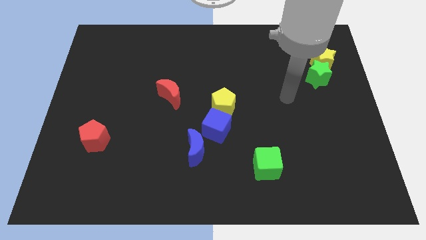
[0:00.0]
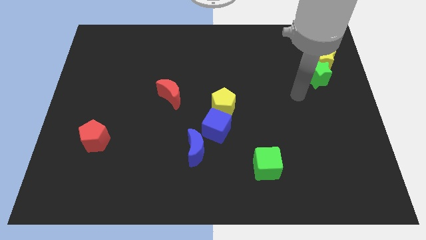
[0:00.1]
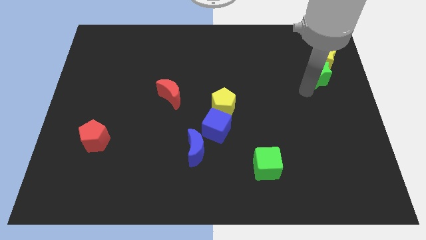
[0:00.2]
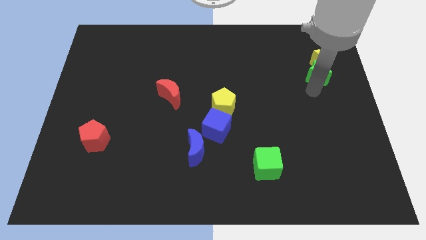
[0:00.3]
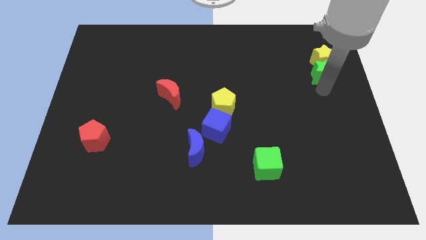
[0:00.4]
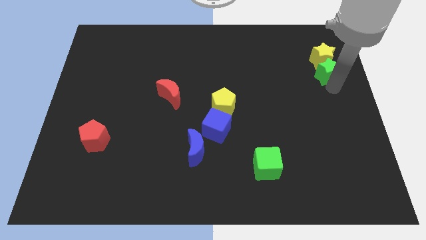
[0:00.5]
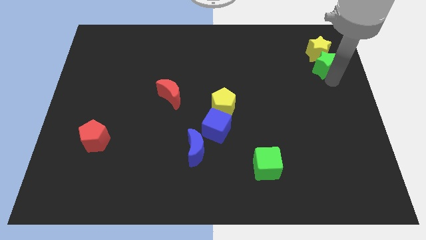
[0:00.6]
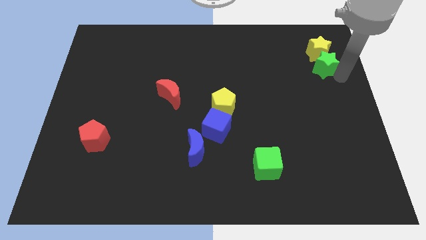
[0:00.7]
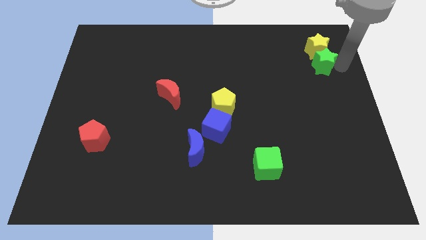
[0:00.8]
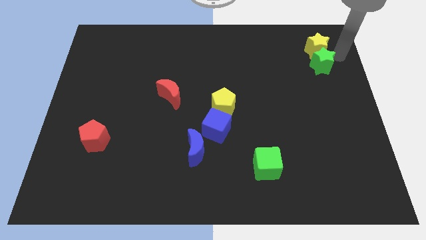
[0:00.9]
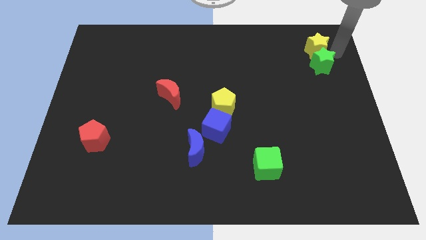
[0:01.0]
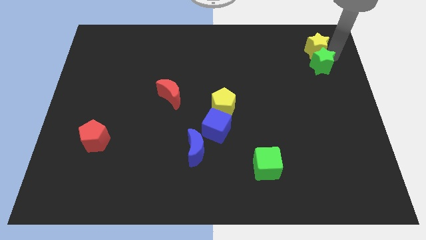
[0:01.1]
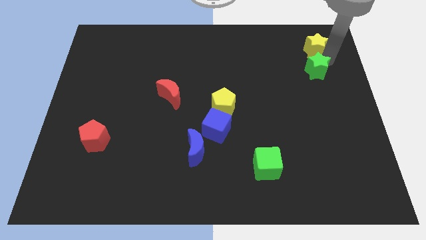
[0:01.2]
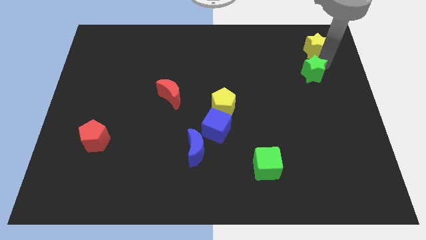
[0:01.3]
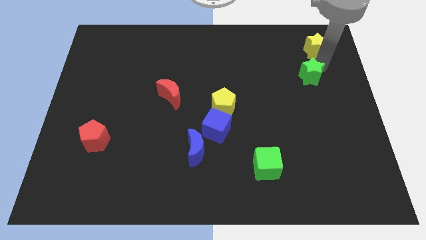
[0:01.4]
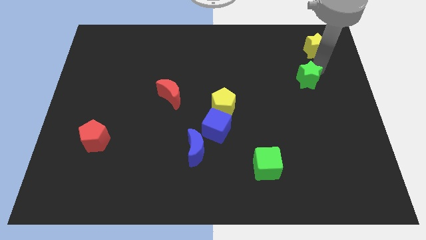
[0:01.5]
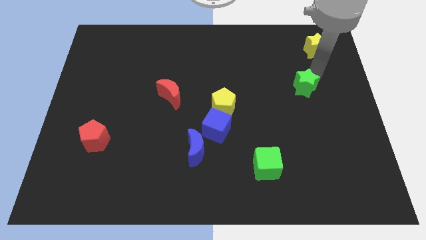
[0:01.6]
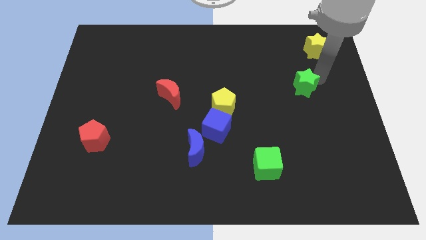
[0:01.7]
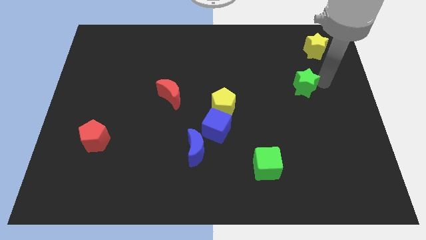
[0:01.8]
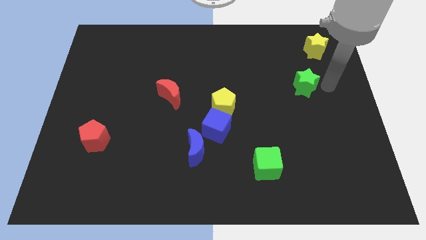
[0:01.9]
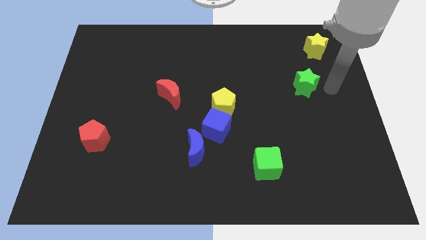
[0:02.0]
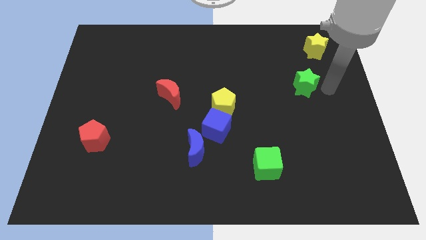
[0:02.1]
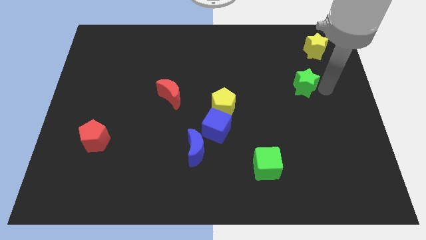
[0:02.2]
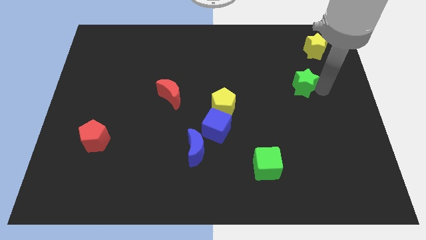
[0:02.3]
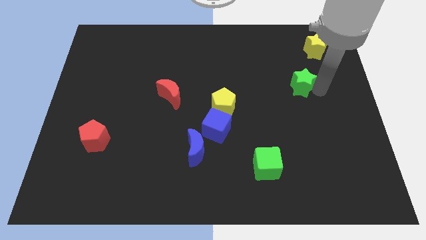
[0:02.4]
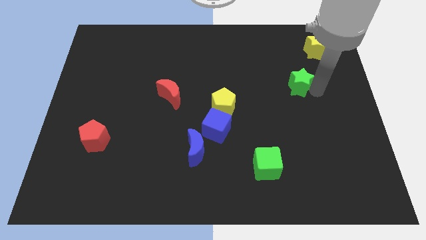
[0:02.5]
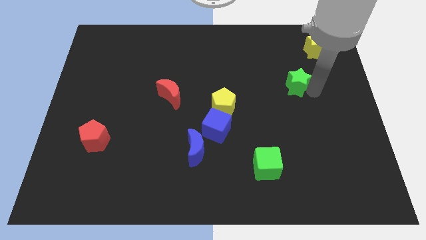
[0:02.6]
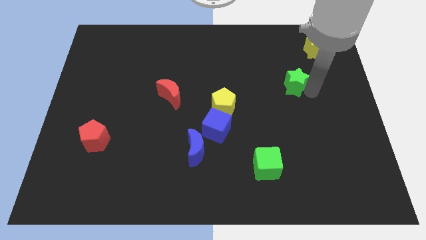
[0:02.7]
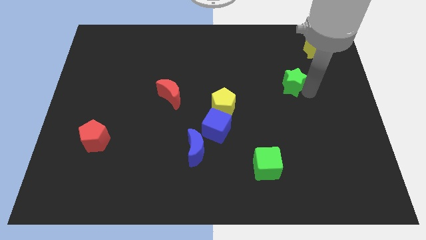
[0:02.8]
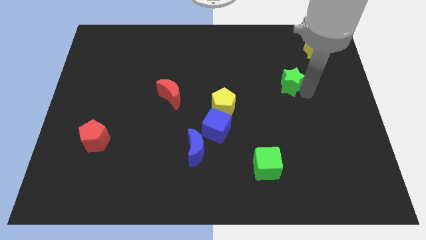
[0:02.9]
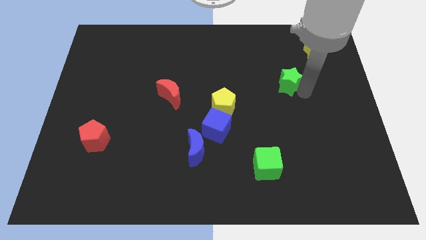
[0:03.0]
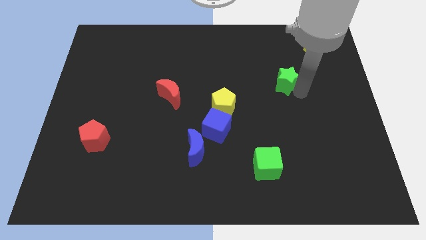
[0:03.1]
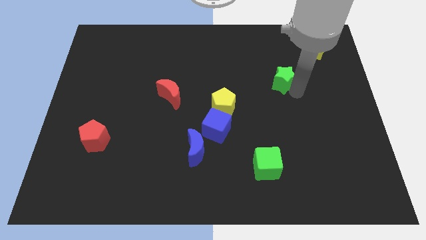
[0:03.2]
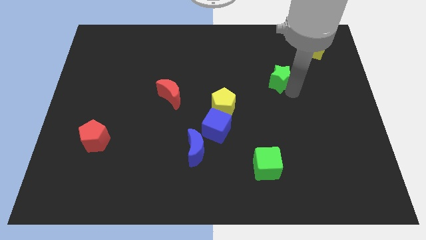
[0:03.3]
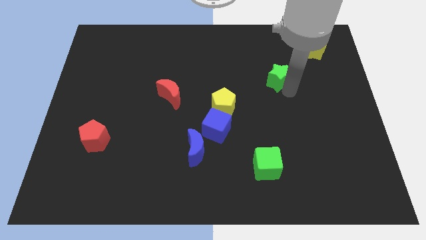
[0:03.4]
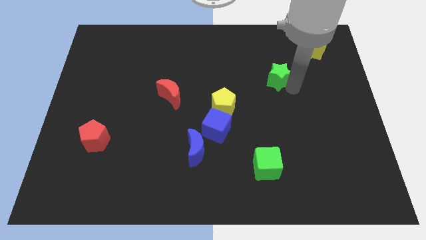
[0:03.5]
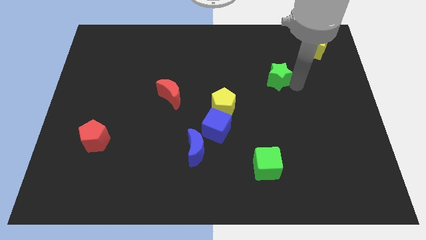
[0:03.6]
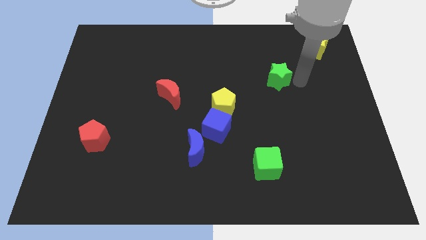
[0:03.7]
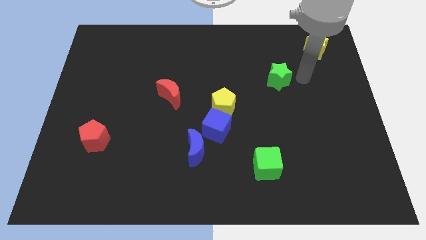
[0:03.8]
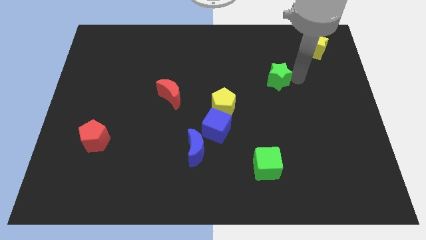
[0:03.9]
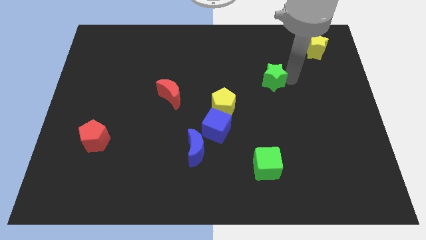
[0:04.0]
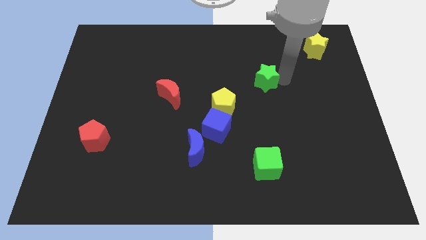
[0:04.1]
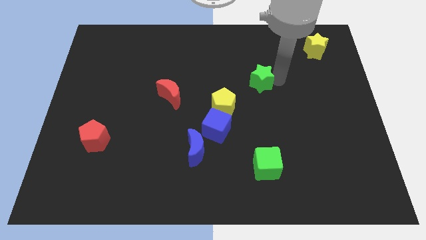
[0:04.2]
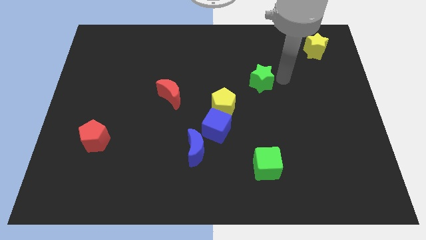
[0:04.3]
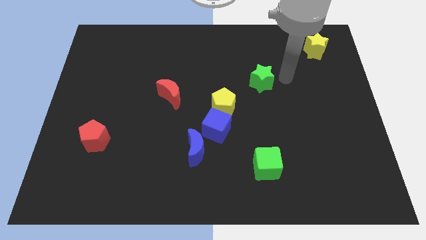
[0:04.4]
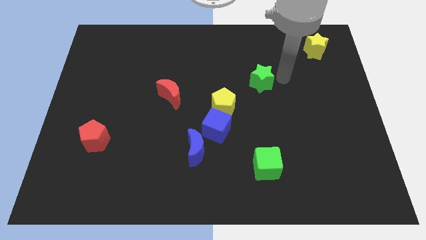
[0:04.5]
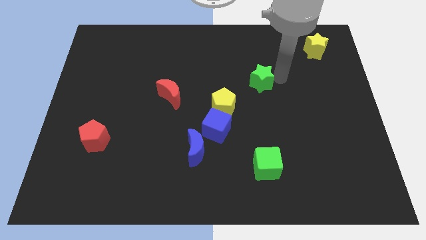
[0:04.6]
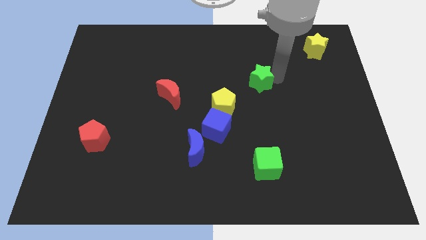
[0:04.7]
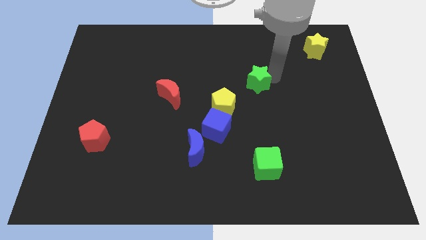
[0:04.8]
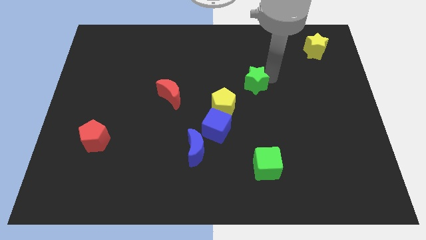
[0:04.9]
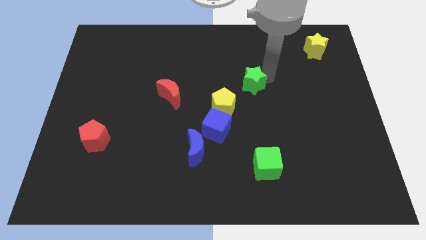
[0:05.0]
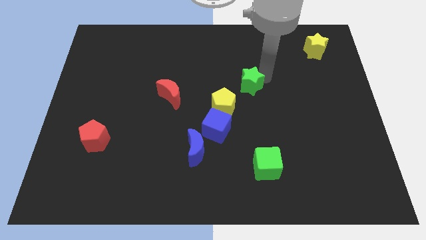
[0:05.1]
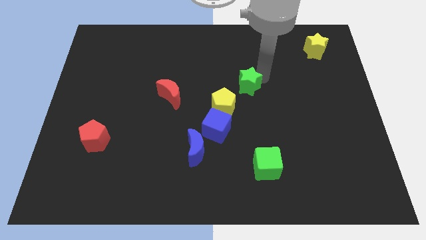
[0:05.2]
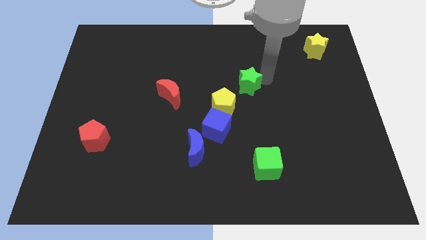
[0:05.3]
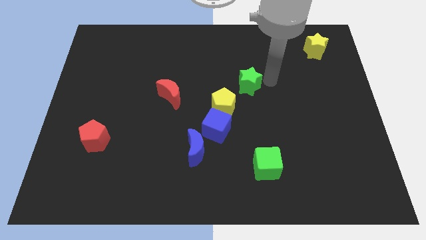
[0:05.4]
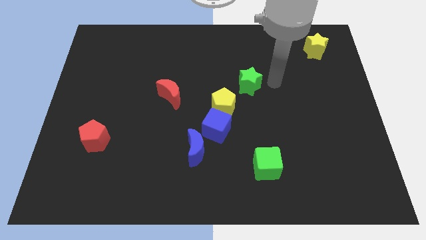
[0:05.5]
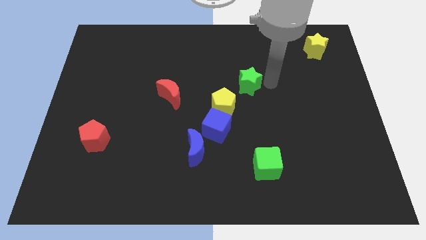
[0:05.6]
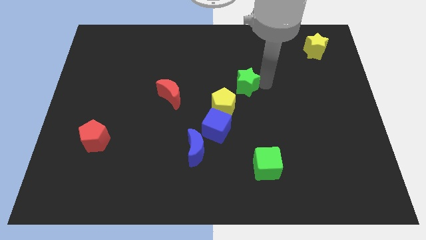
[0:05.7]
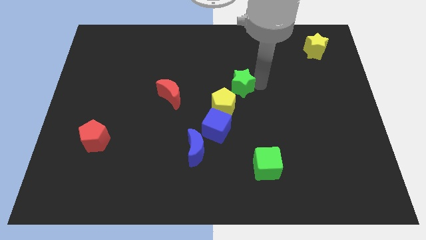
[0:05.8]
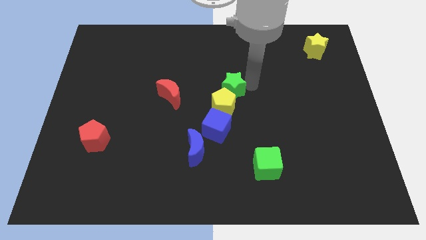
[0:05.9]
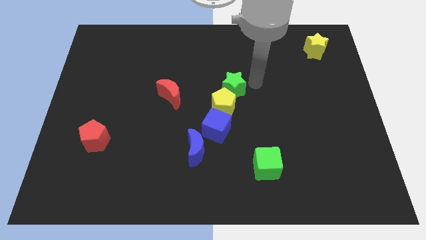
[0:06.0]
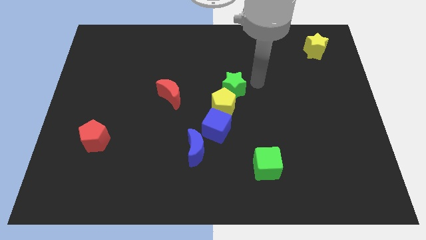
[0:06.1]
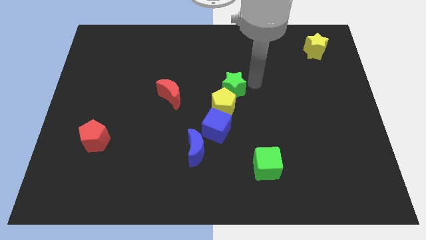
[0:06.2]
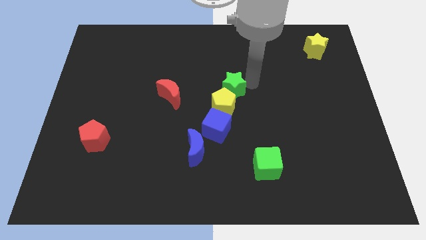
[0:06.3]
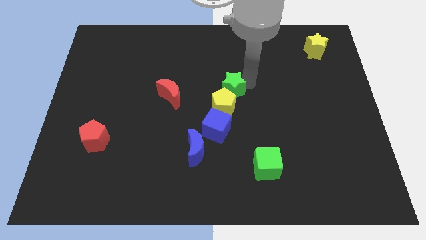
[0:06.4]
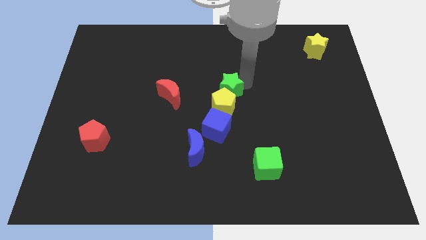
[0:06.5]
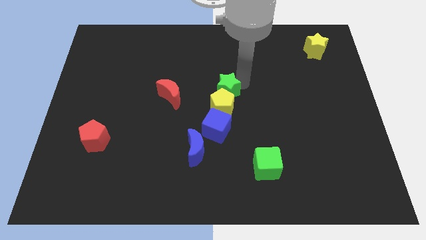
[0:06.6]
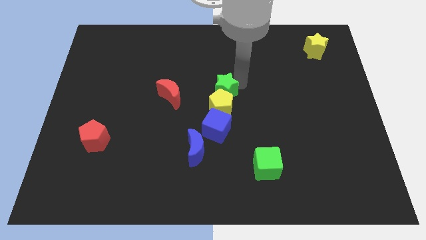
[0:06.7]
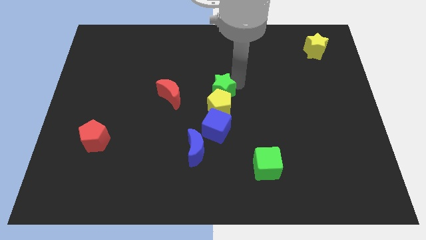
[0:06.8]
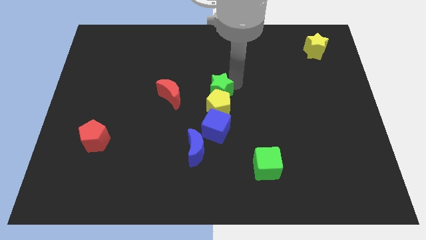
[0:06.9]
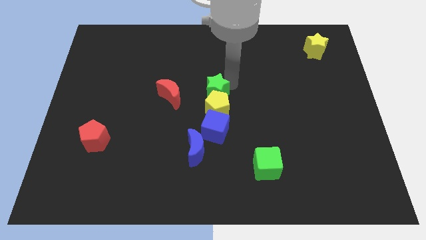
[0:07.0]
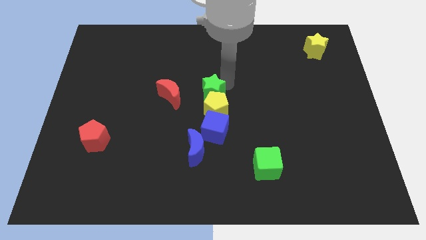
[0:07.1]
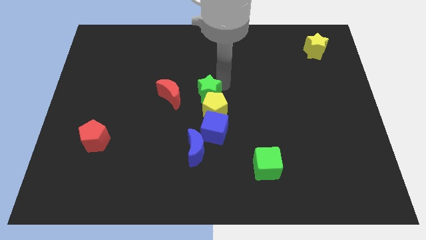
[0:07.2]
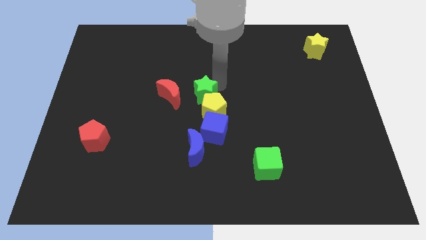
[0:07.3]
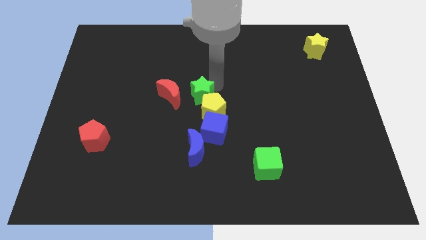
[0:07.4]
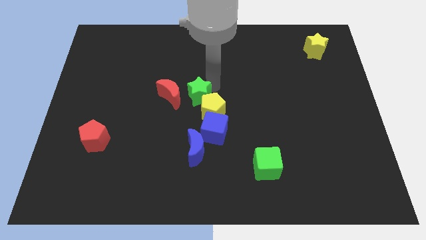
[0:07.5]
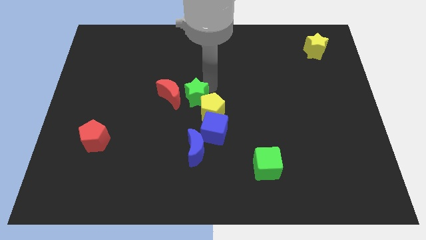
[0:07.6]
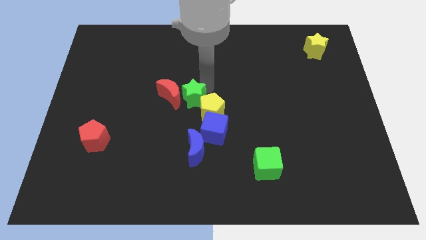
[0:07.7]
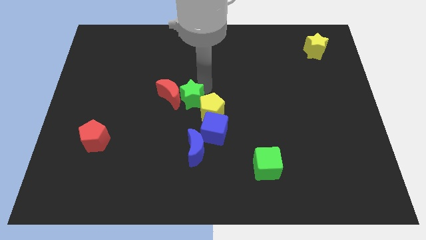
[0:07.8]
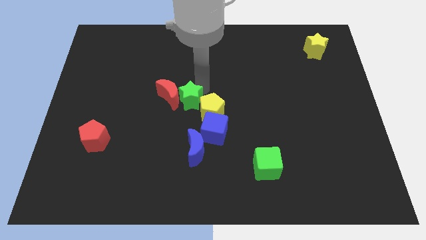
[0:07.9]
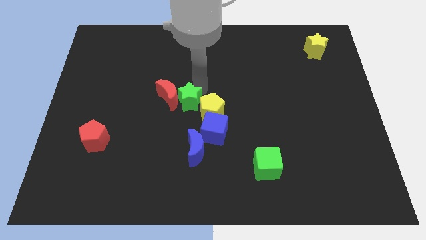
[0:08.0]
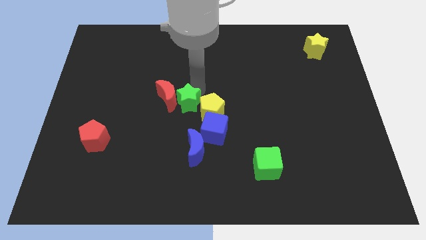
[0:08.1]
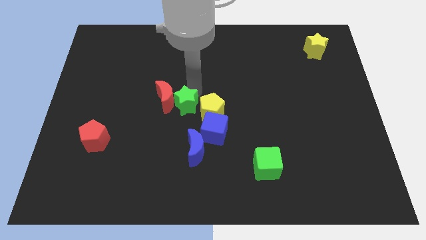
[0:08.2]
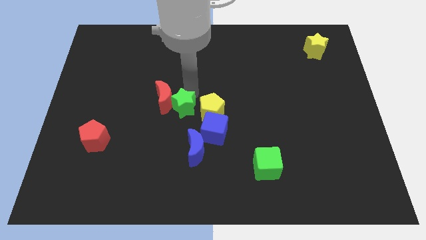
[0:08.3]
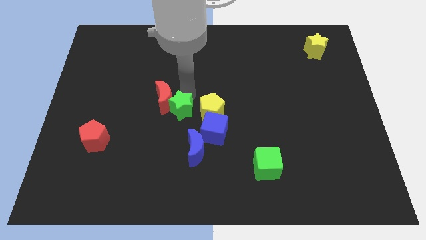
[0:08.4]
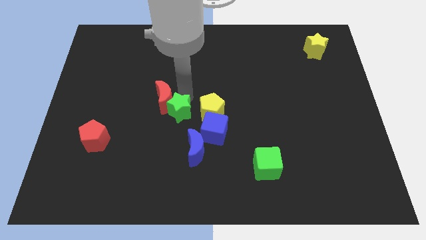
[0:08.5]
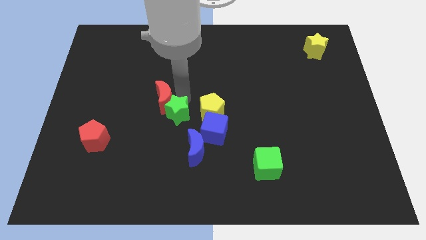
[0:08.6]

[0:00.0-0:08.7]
push the green star to the left side of the blue cube
